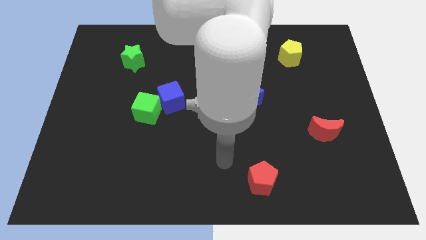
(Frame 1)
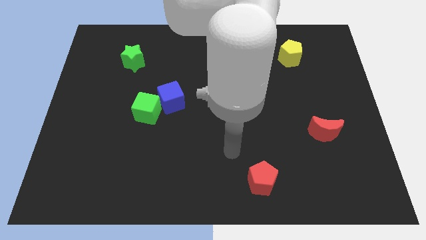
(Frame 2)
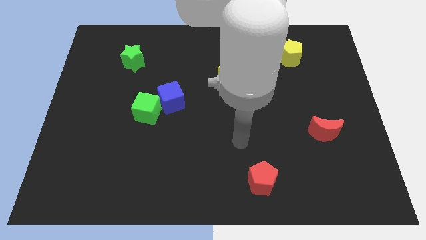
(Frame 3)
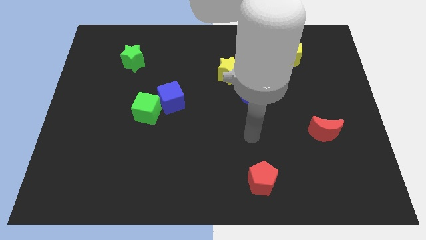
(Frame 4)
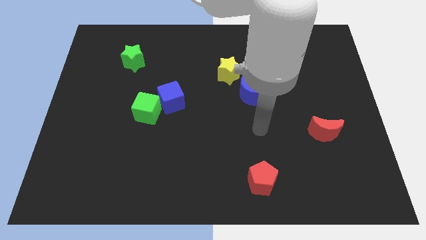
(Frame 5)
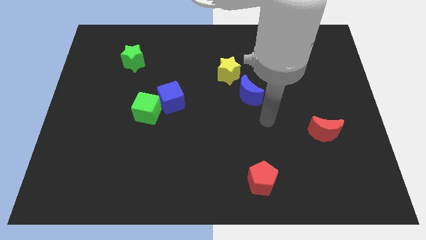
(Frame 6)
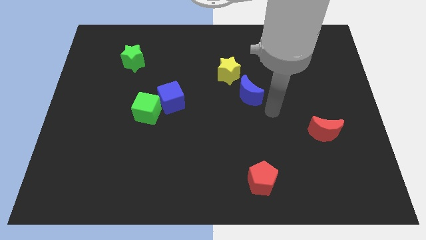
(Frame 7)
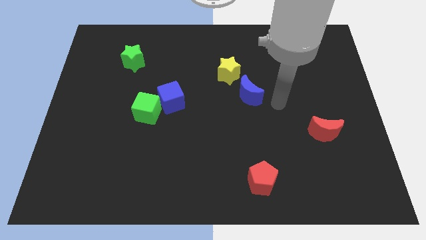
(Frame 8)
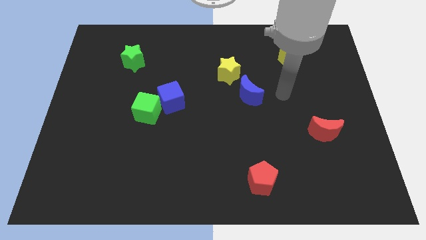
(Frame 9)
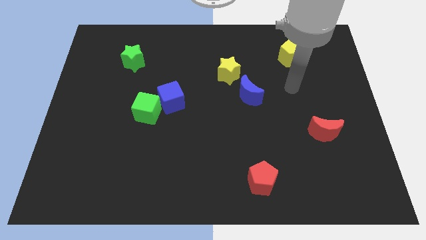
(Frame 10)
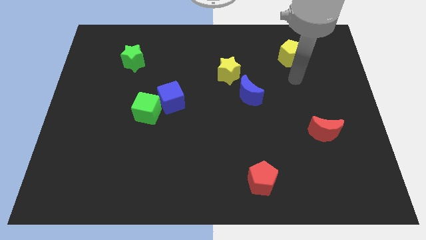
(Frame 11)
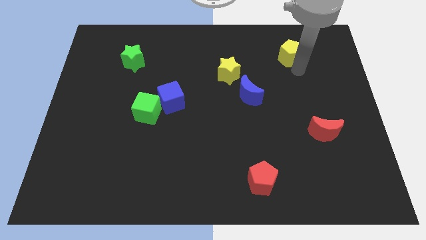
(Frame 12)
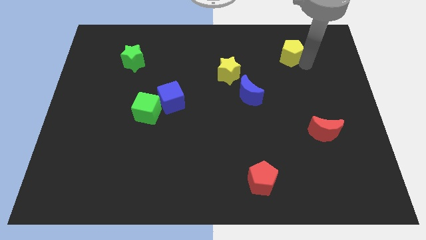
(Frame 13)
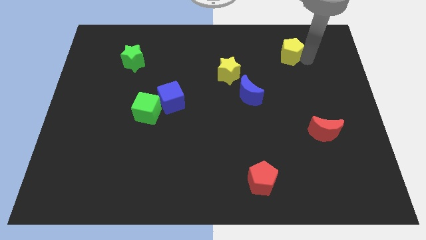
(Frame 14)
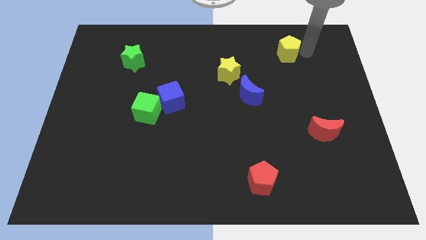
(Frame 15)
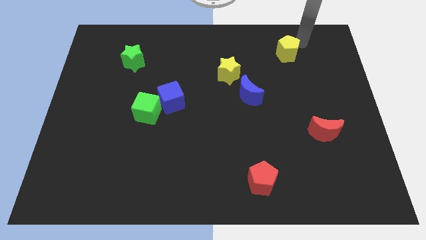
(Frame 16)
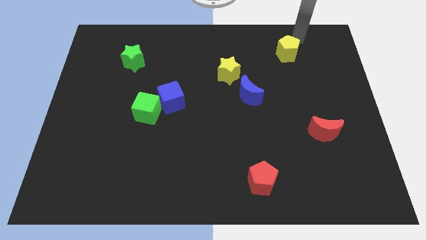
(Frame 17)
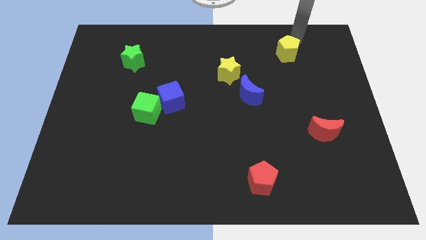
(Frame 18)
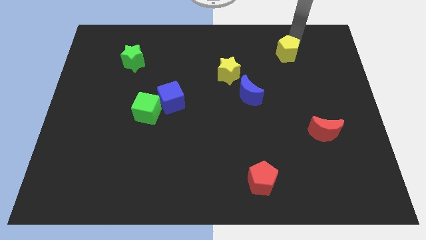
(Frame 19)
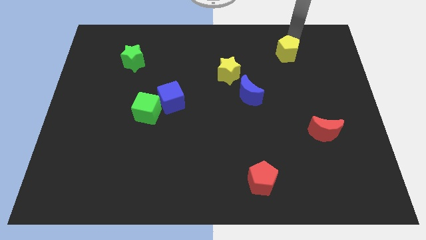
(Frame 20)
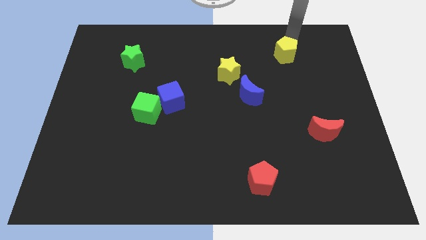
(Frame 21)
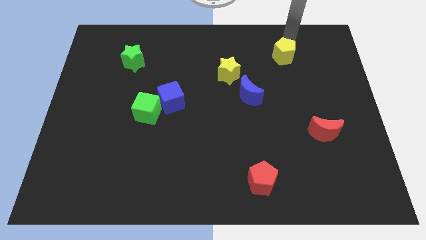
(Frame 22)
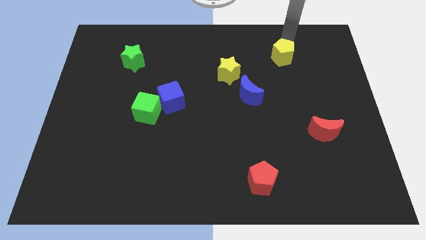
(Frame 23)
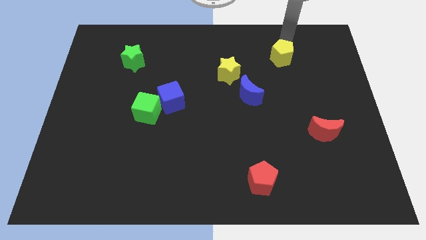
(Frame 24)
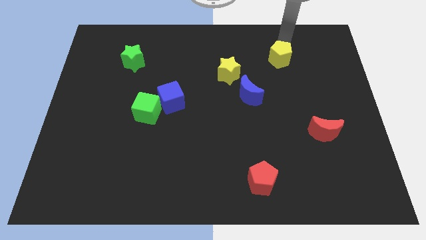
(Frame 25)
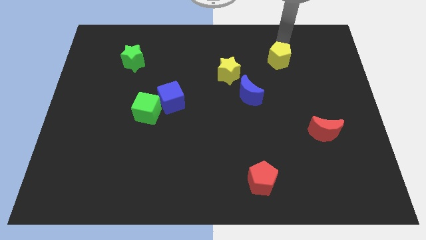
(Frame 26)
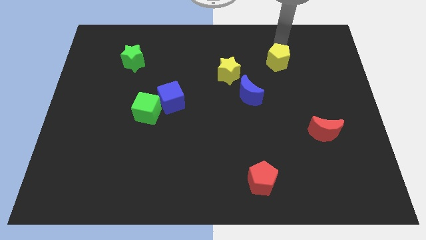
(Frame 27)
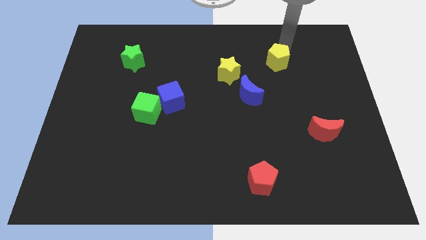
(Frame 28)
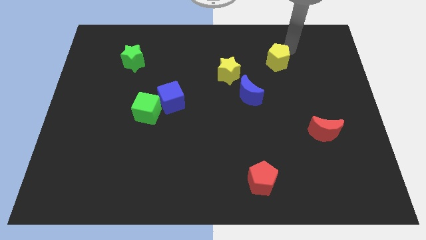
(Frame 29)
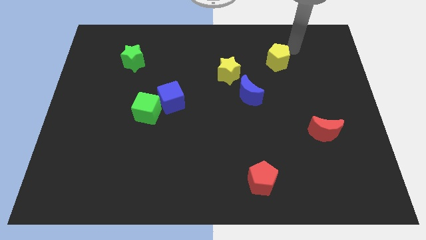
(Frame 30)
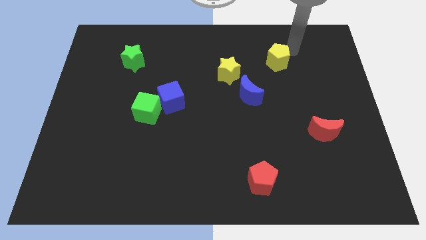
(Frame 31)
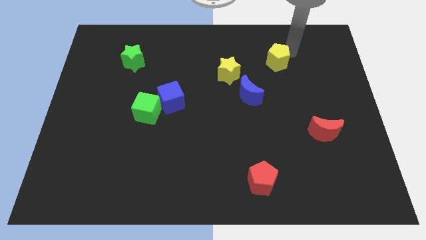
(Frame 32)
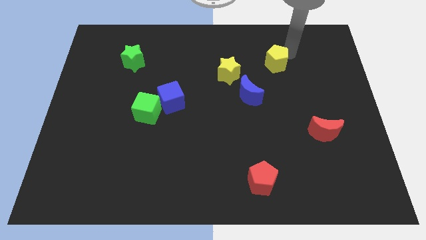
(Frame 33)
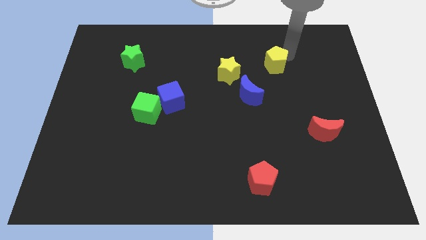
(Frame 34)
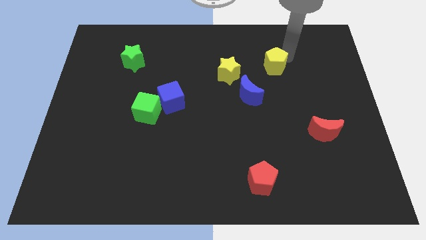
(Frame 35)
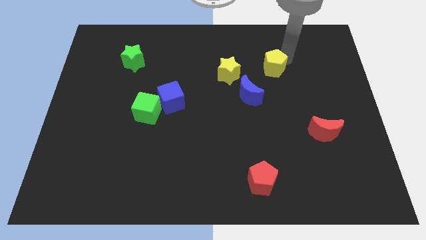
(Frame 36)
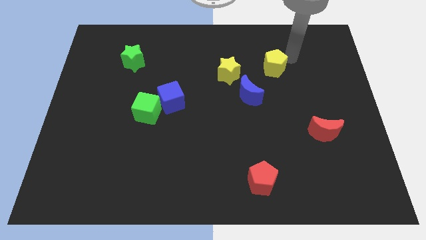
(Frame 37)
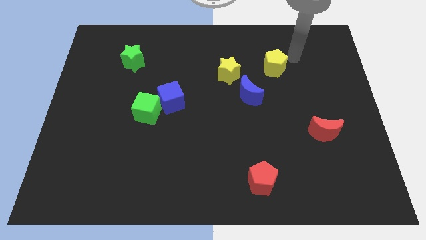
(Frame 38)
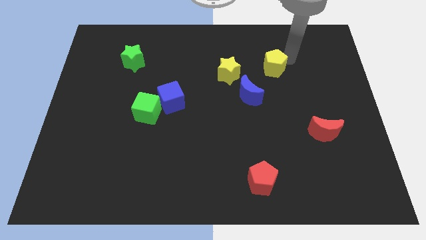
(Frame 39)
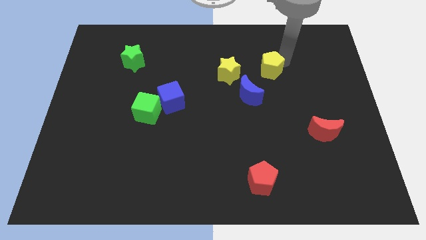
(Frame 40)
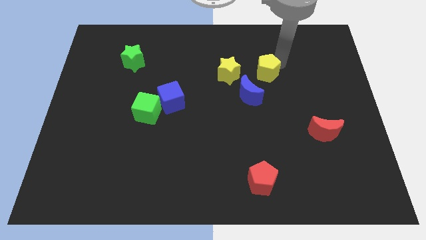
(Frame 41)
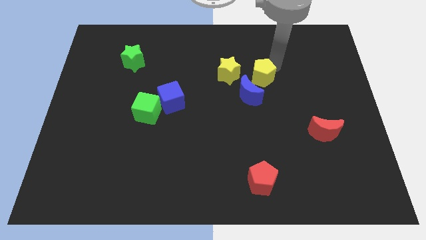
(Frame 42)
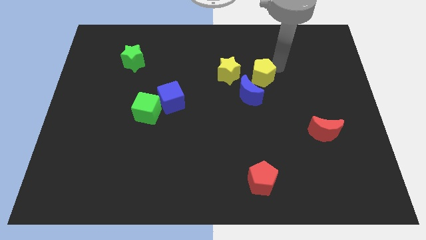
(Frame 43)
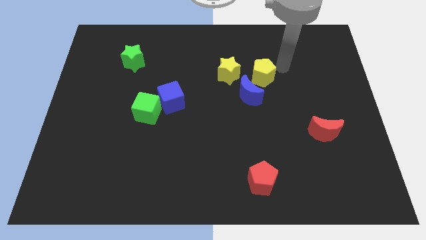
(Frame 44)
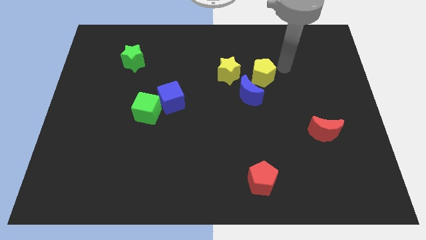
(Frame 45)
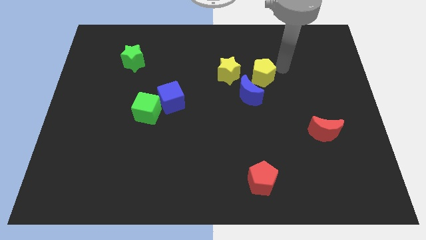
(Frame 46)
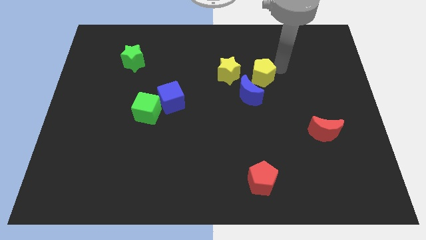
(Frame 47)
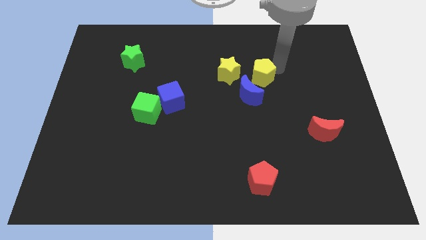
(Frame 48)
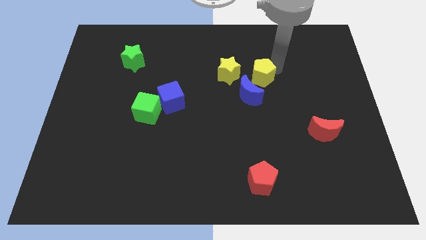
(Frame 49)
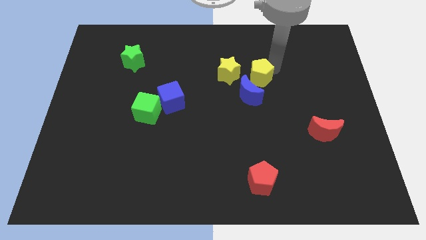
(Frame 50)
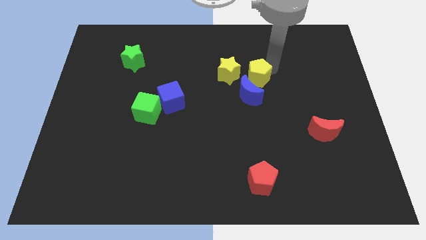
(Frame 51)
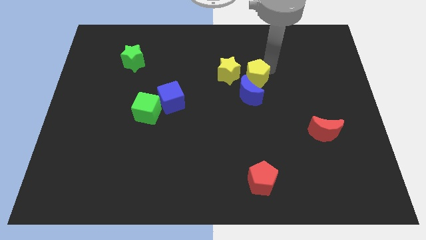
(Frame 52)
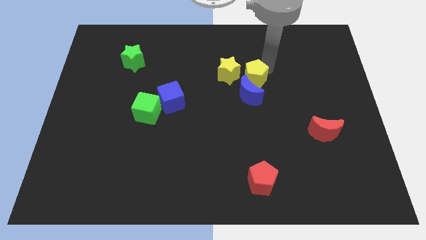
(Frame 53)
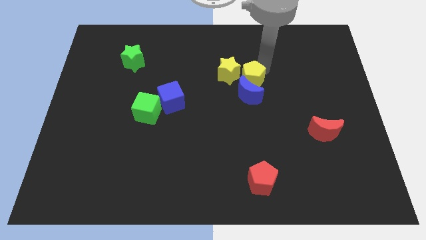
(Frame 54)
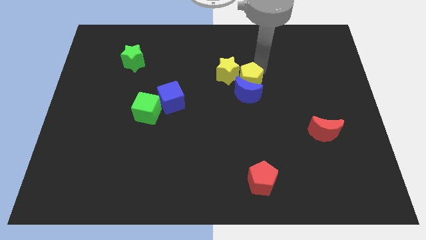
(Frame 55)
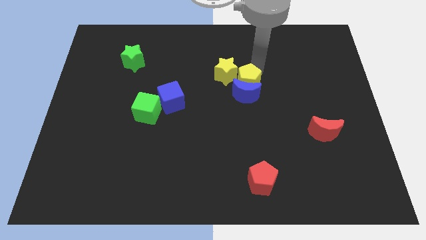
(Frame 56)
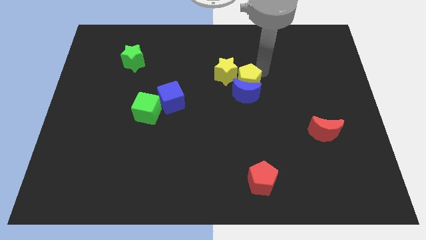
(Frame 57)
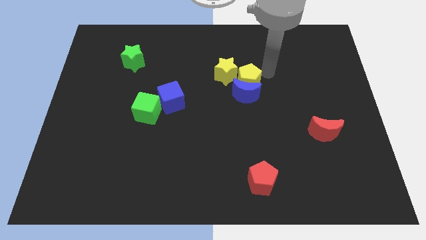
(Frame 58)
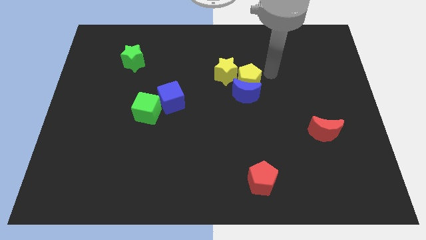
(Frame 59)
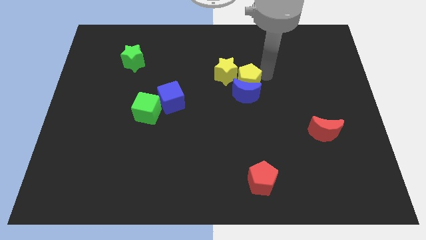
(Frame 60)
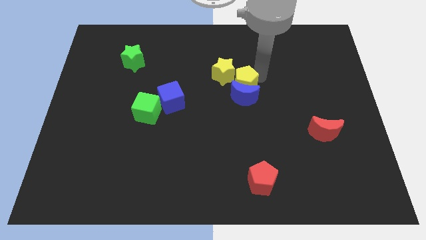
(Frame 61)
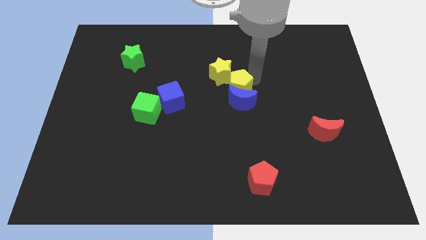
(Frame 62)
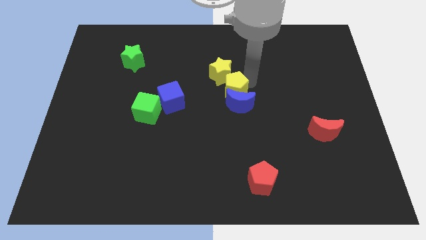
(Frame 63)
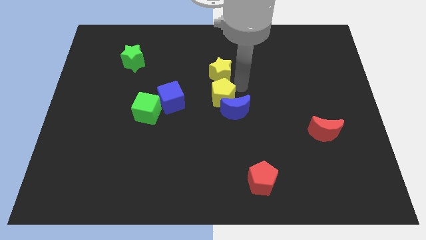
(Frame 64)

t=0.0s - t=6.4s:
move the yellow pentagon to the left side of the blue moon

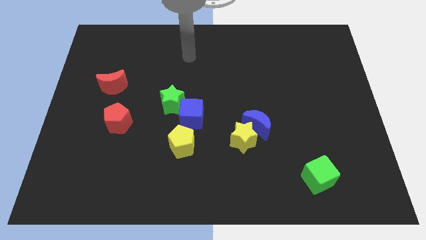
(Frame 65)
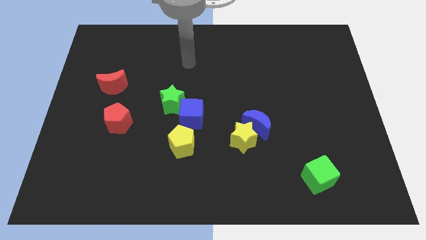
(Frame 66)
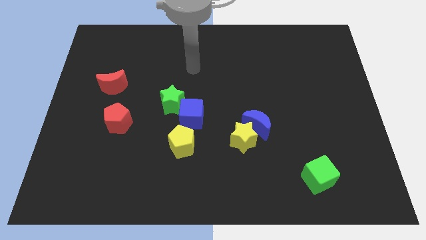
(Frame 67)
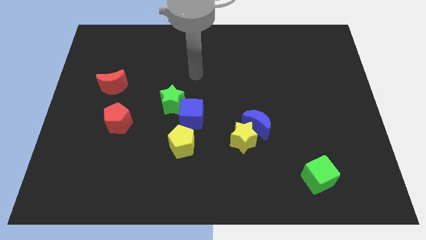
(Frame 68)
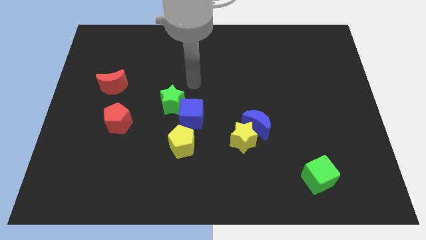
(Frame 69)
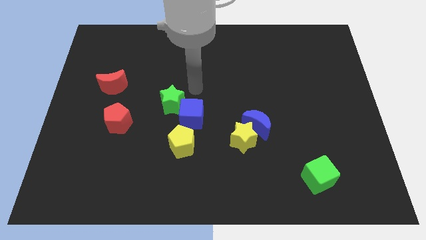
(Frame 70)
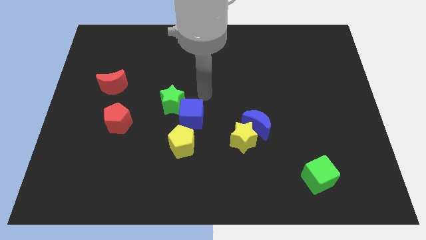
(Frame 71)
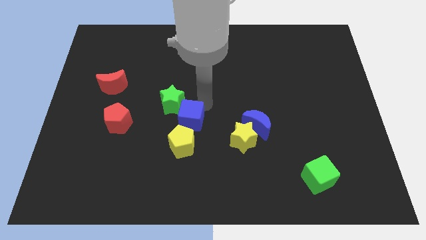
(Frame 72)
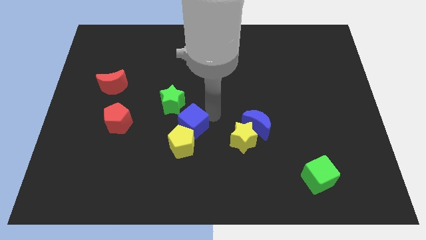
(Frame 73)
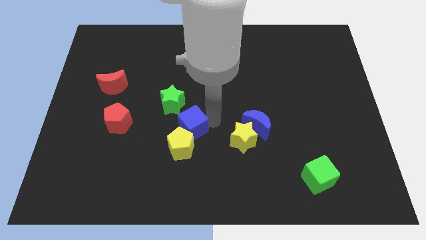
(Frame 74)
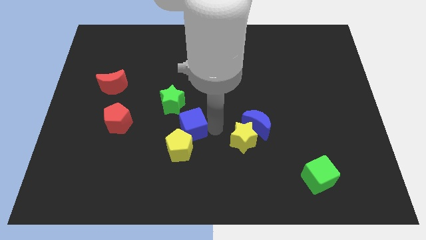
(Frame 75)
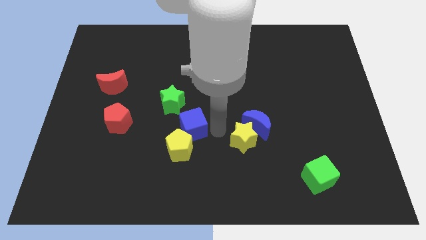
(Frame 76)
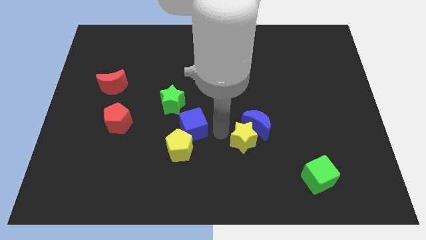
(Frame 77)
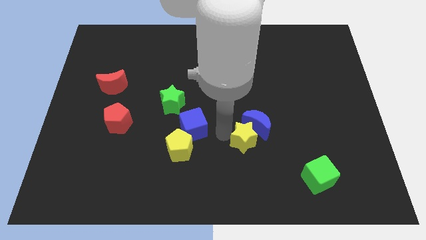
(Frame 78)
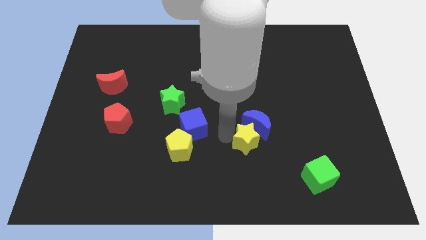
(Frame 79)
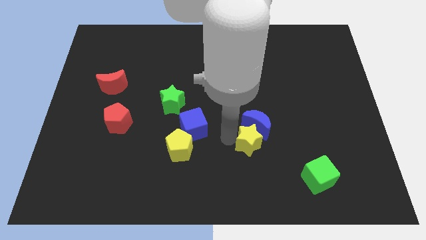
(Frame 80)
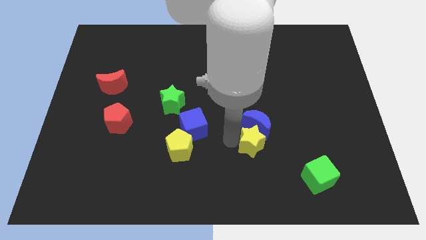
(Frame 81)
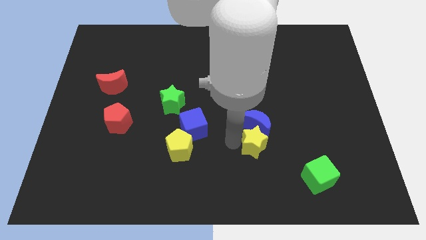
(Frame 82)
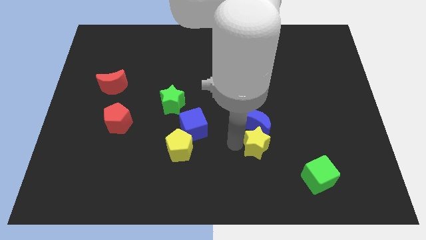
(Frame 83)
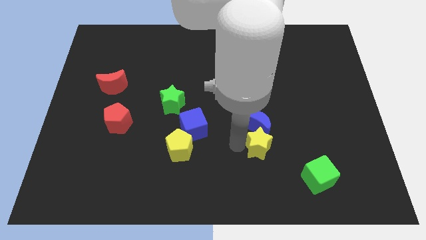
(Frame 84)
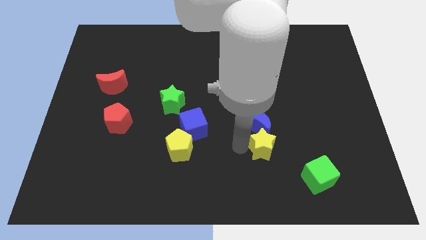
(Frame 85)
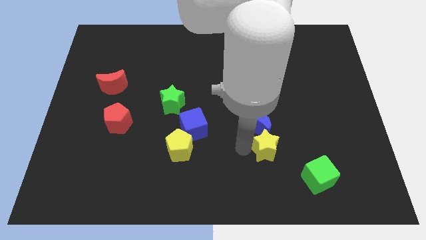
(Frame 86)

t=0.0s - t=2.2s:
move the yellow star to the top left side of the green cube
